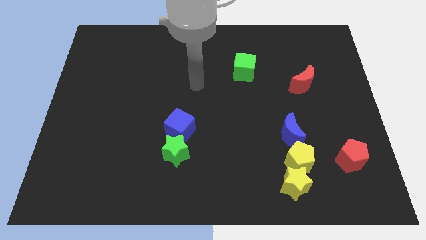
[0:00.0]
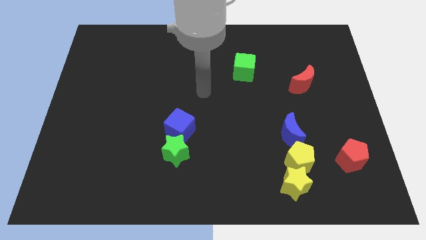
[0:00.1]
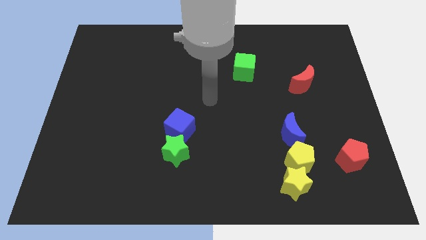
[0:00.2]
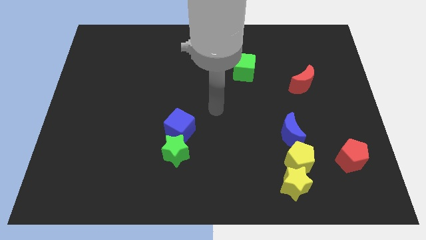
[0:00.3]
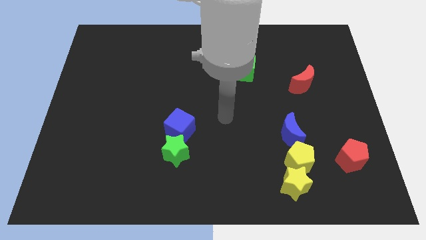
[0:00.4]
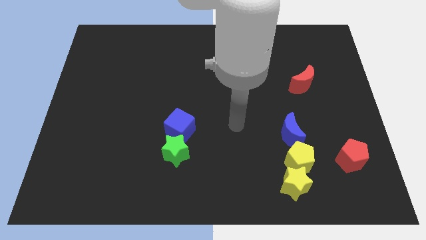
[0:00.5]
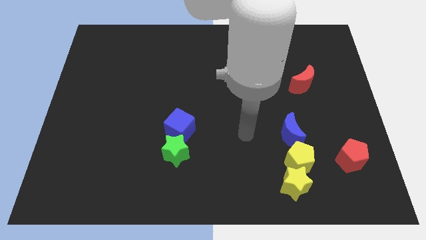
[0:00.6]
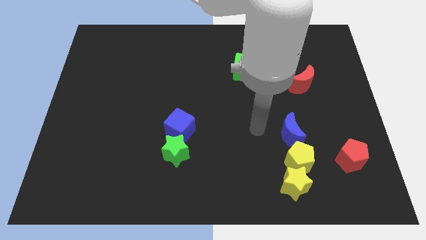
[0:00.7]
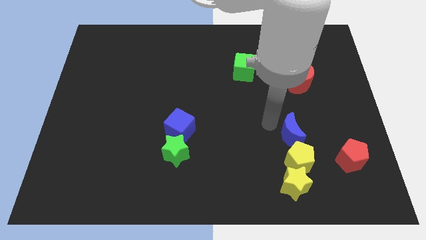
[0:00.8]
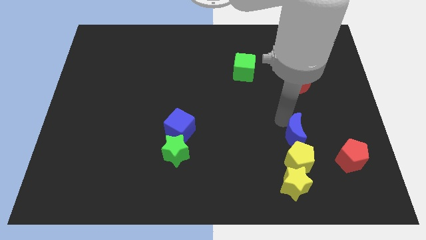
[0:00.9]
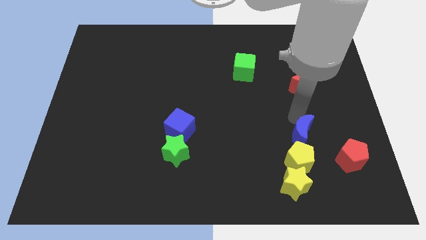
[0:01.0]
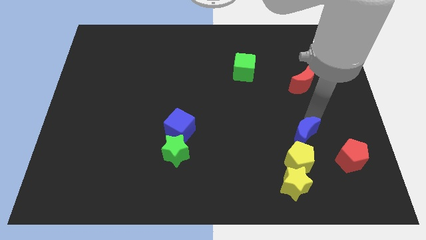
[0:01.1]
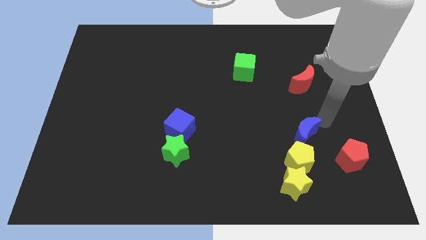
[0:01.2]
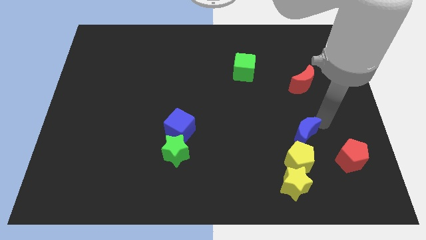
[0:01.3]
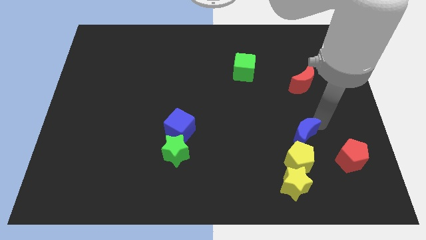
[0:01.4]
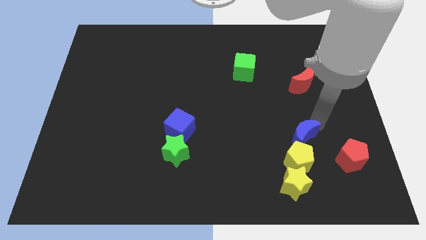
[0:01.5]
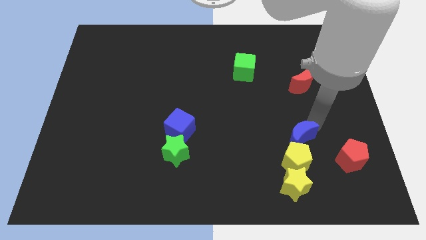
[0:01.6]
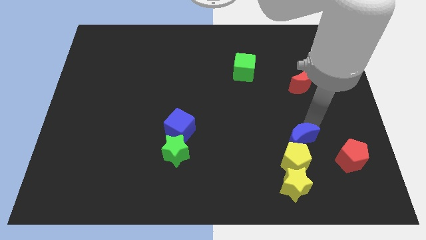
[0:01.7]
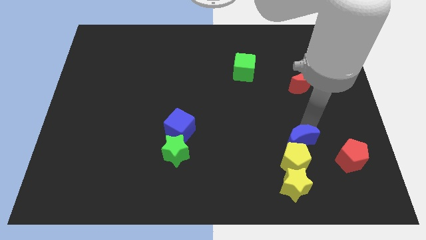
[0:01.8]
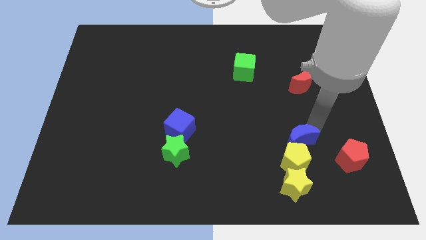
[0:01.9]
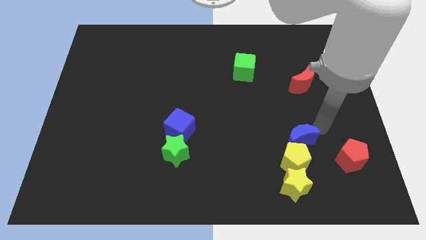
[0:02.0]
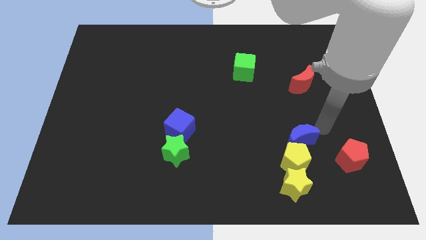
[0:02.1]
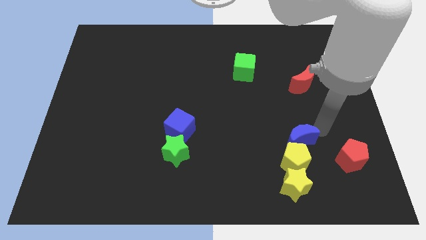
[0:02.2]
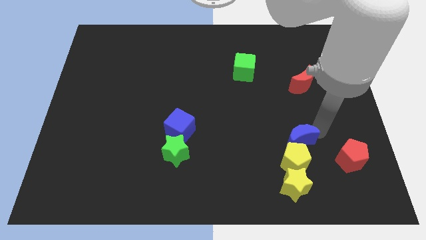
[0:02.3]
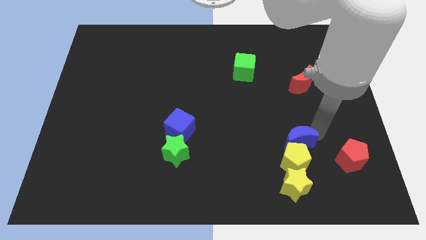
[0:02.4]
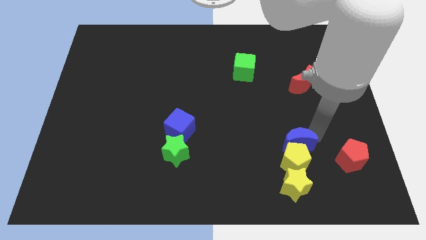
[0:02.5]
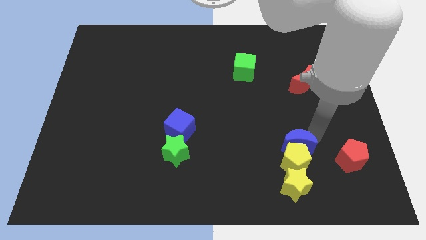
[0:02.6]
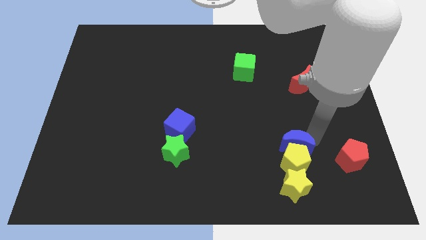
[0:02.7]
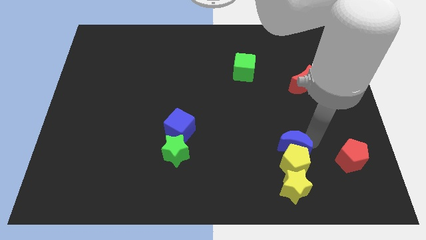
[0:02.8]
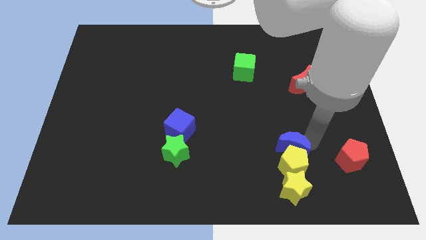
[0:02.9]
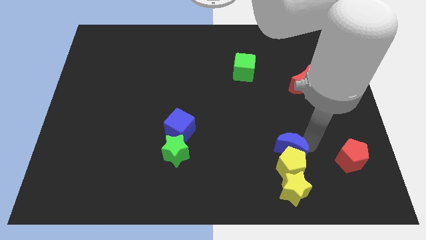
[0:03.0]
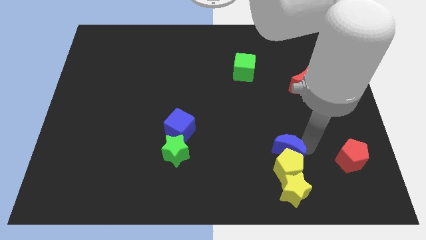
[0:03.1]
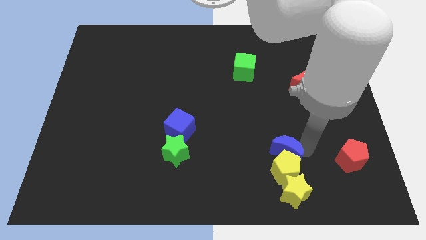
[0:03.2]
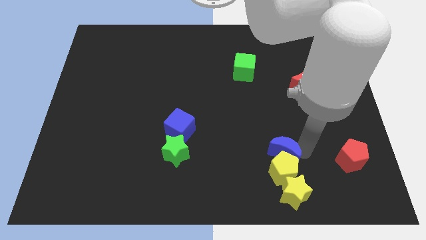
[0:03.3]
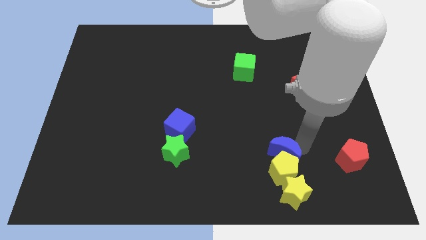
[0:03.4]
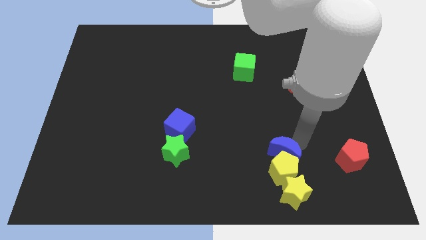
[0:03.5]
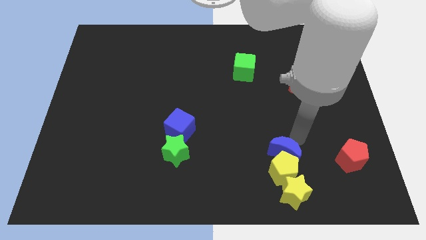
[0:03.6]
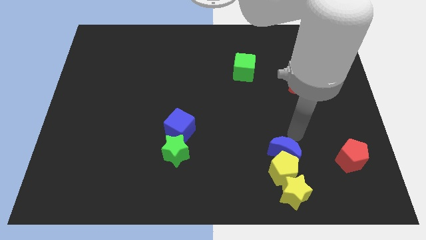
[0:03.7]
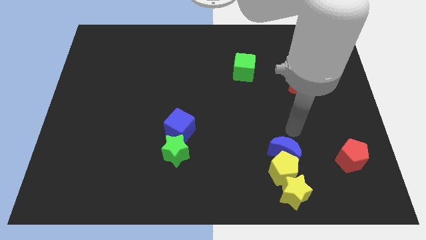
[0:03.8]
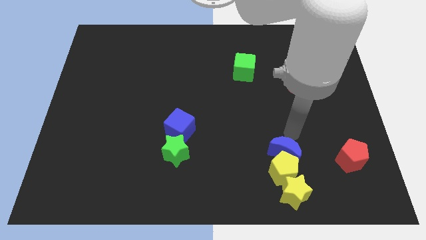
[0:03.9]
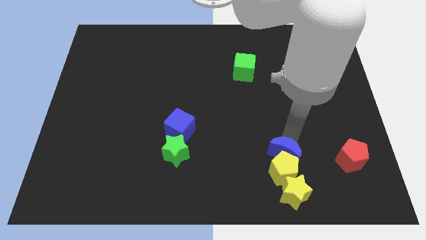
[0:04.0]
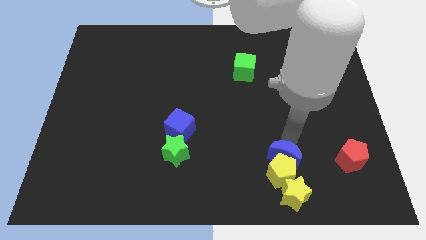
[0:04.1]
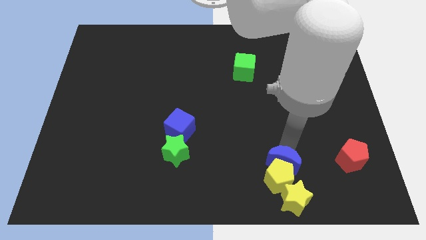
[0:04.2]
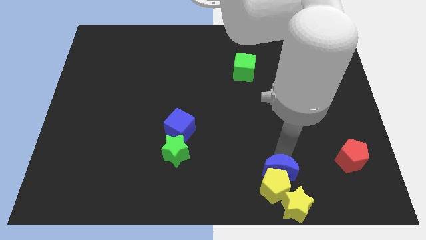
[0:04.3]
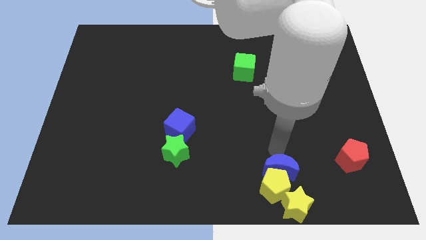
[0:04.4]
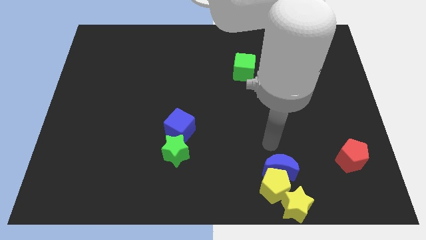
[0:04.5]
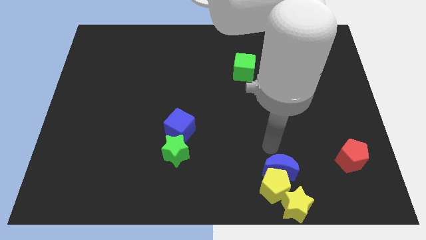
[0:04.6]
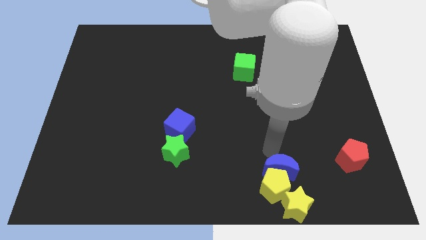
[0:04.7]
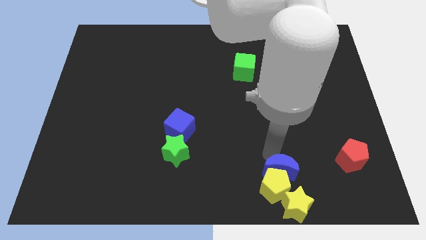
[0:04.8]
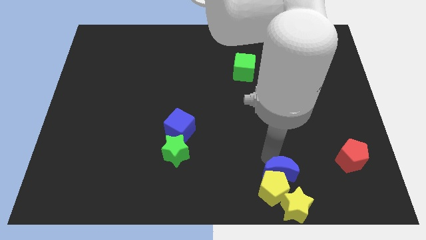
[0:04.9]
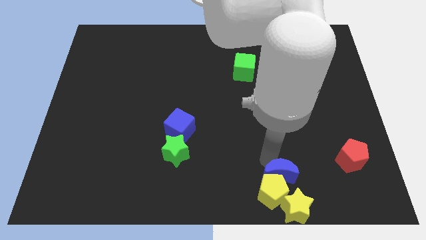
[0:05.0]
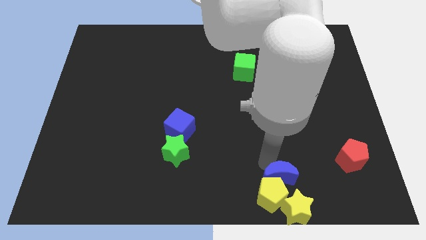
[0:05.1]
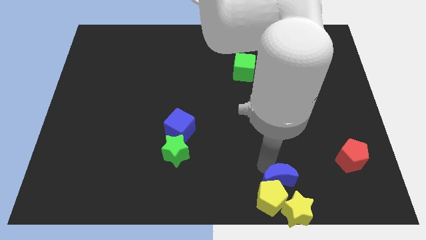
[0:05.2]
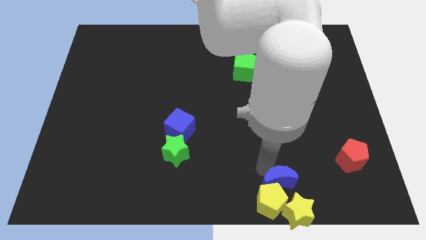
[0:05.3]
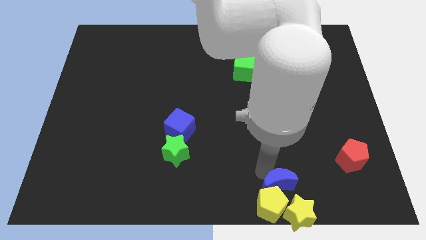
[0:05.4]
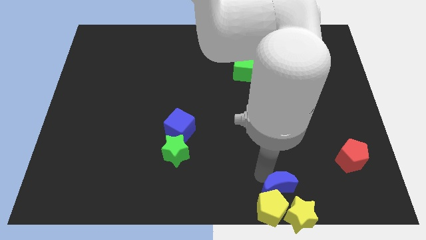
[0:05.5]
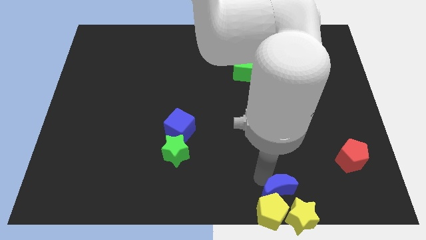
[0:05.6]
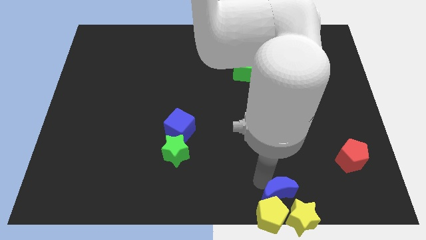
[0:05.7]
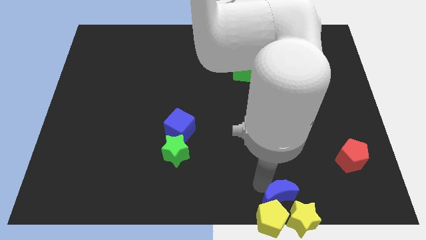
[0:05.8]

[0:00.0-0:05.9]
push the blue moon next to the yellow star

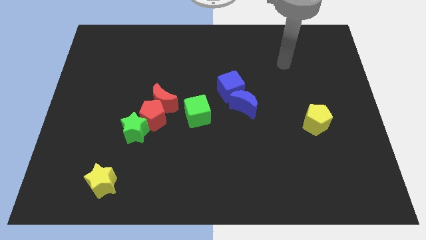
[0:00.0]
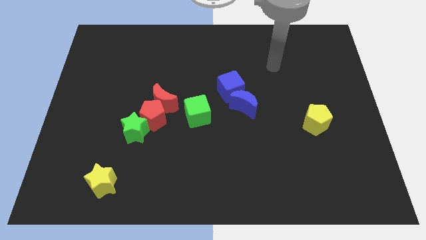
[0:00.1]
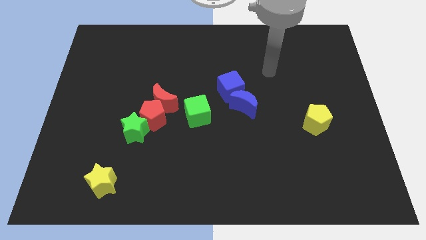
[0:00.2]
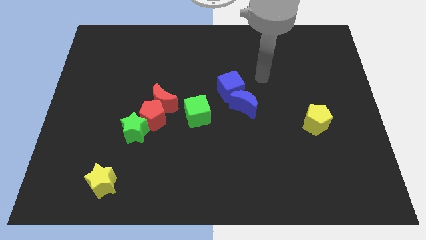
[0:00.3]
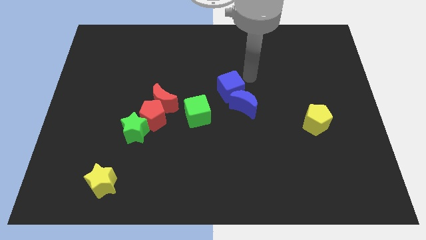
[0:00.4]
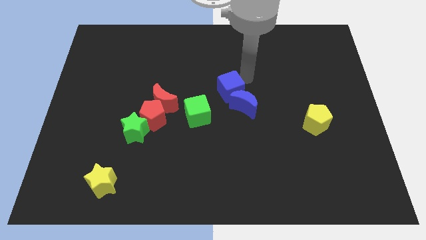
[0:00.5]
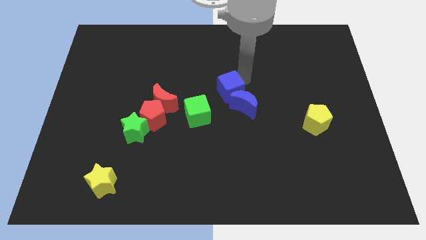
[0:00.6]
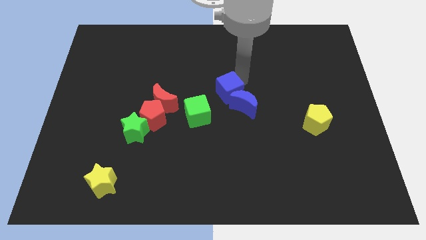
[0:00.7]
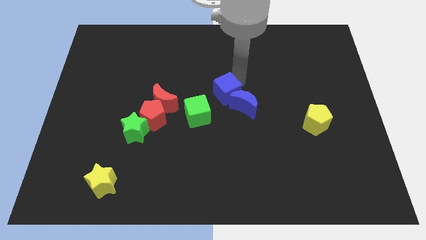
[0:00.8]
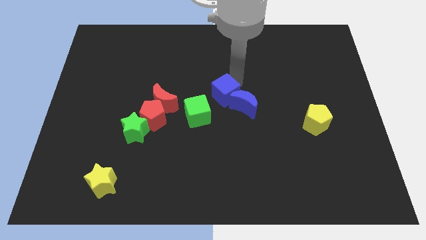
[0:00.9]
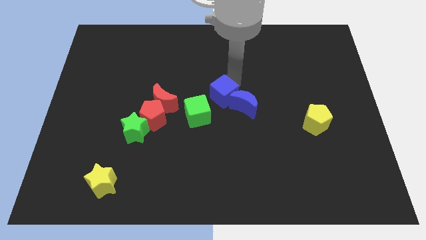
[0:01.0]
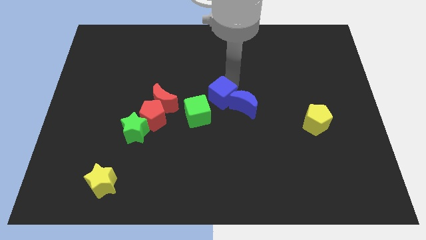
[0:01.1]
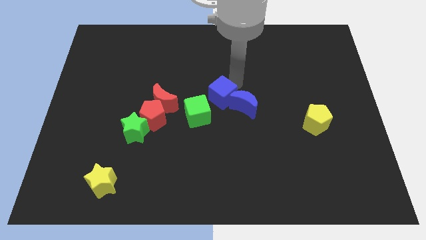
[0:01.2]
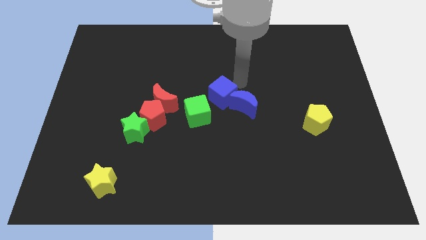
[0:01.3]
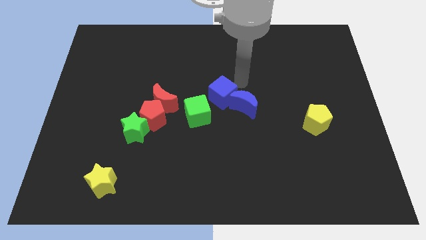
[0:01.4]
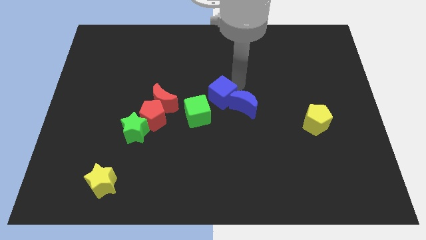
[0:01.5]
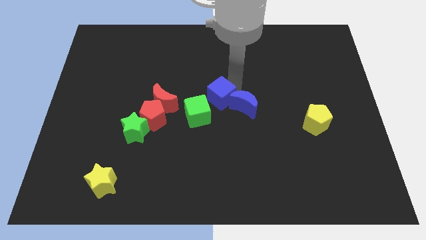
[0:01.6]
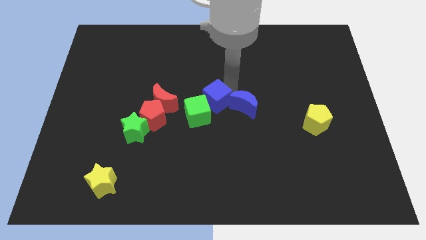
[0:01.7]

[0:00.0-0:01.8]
slide the blue cube towards the green cube
